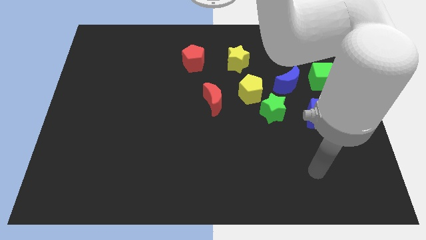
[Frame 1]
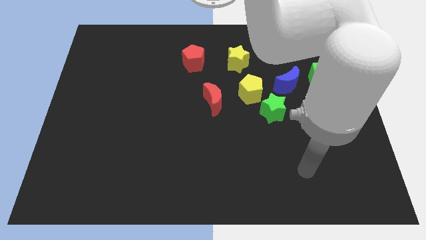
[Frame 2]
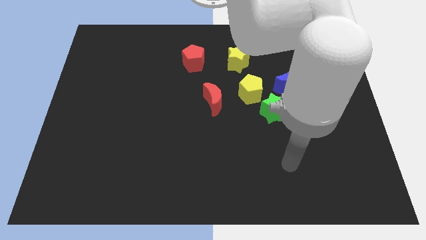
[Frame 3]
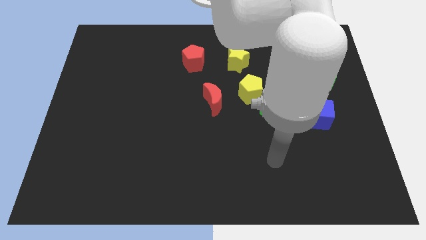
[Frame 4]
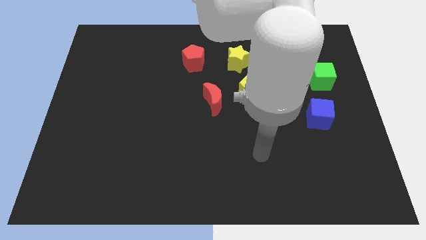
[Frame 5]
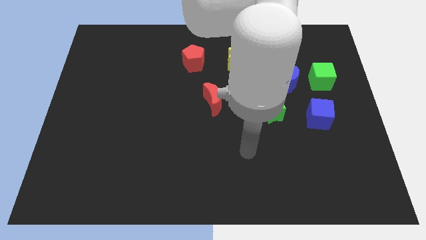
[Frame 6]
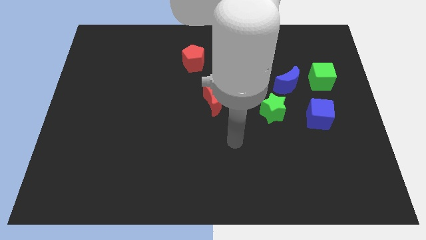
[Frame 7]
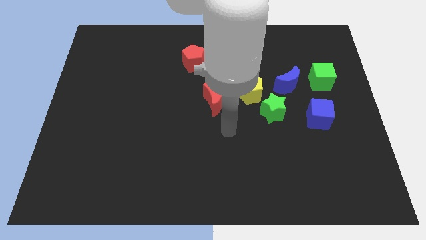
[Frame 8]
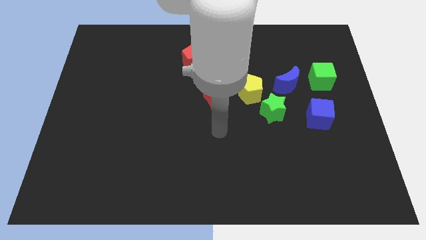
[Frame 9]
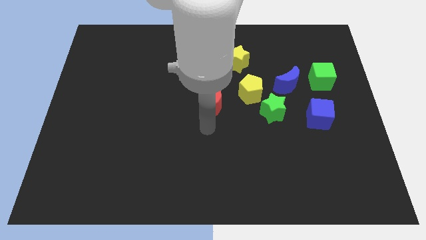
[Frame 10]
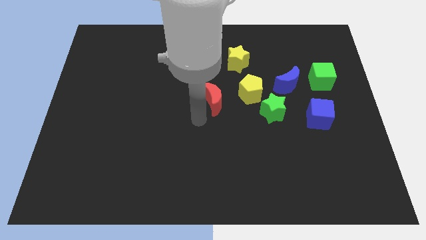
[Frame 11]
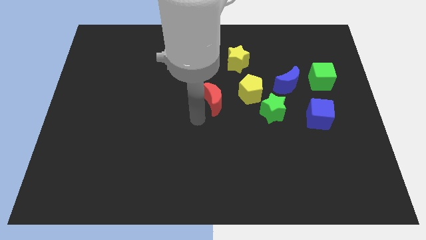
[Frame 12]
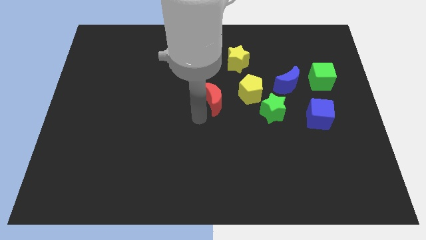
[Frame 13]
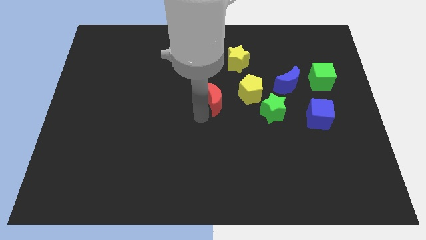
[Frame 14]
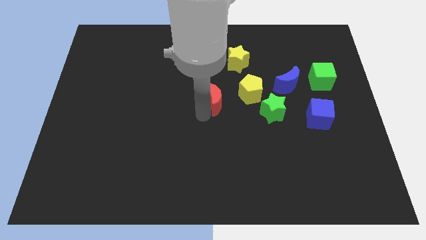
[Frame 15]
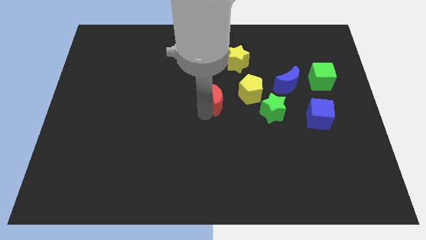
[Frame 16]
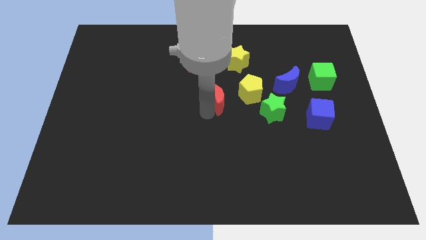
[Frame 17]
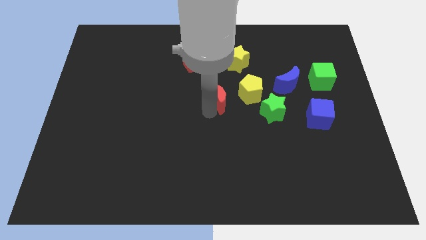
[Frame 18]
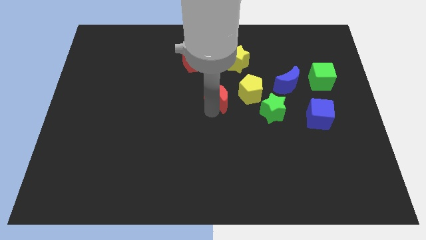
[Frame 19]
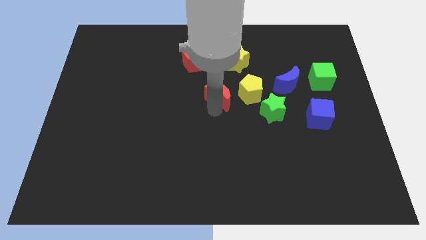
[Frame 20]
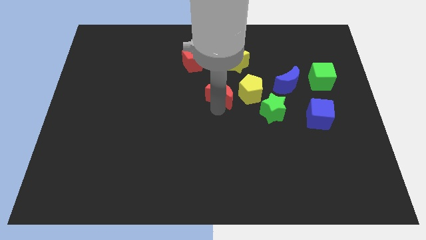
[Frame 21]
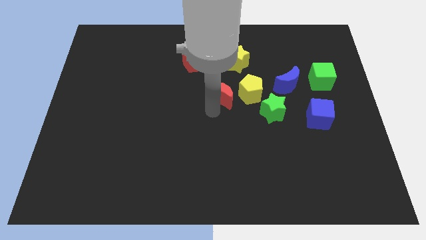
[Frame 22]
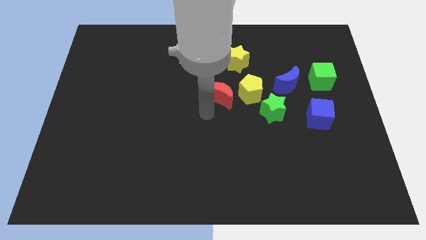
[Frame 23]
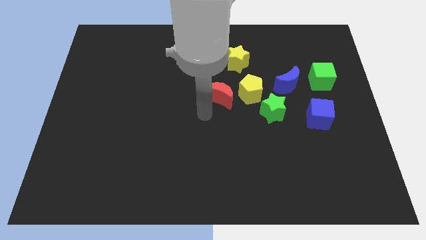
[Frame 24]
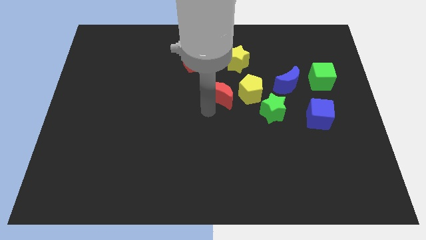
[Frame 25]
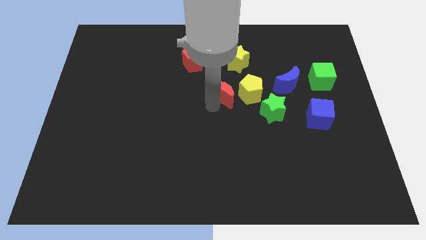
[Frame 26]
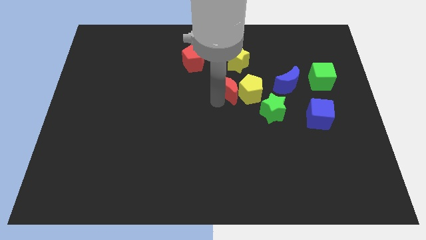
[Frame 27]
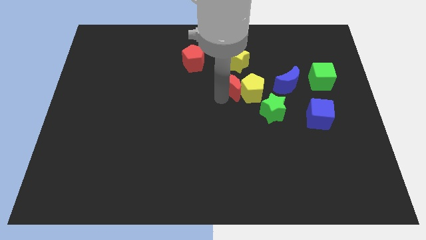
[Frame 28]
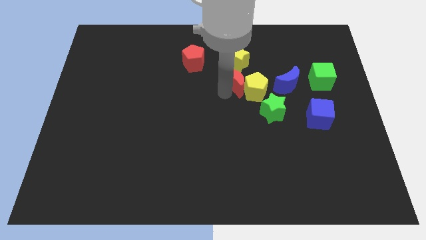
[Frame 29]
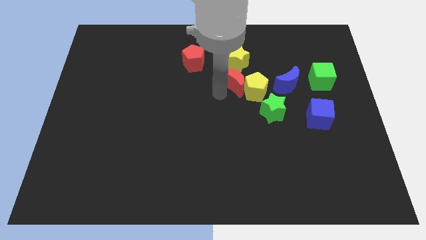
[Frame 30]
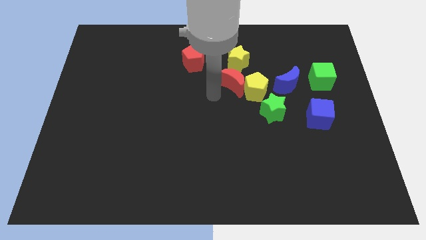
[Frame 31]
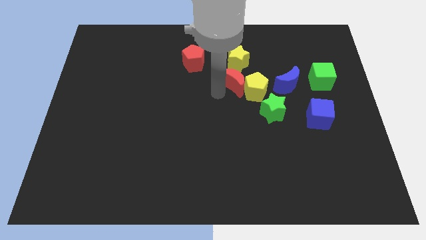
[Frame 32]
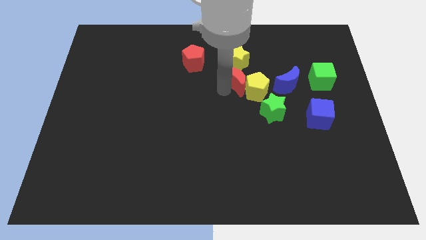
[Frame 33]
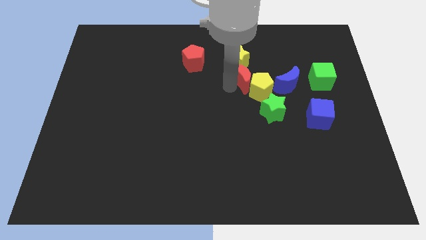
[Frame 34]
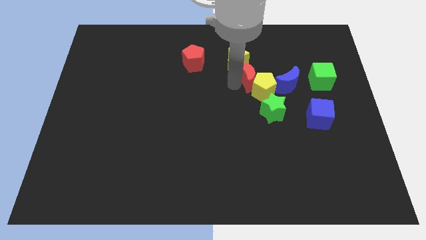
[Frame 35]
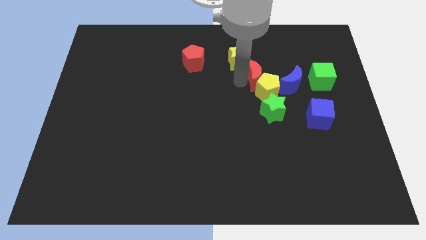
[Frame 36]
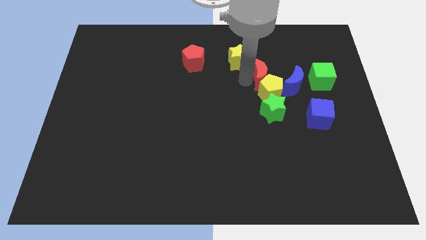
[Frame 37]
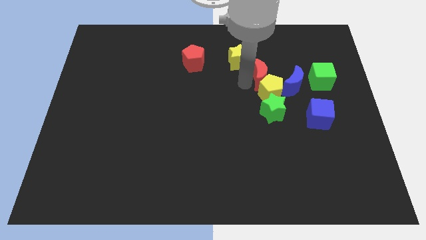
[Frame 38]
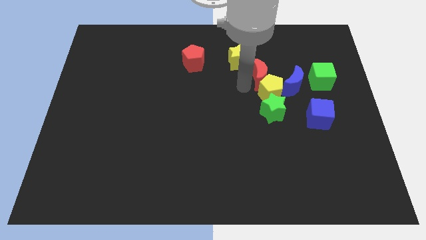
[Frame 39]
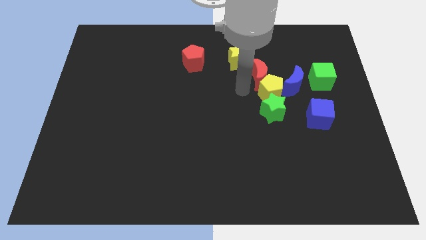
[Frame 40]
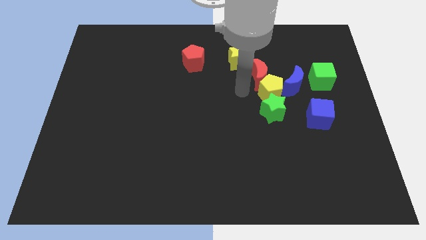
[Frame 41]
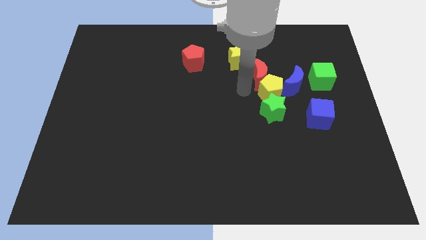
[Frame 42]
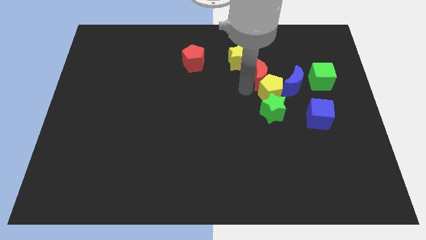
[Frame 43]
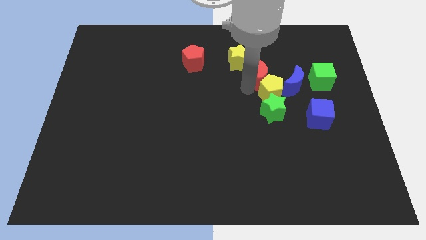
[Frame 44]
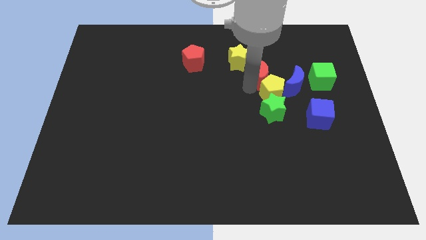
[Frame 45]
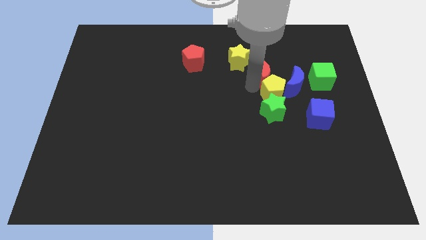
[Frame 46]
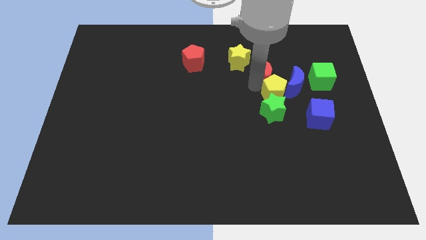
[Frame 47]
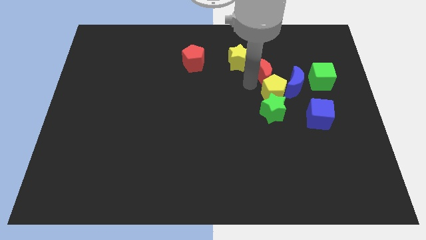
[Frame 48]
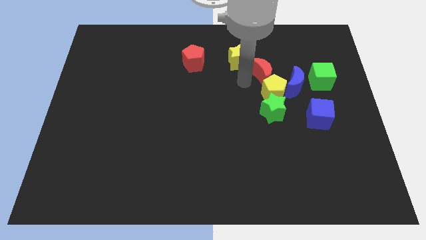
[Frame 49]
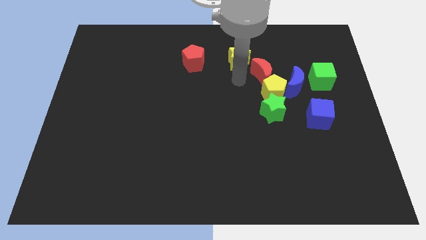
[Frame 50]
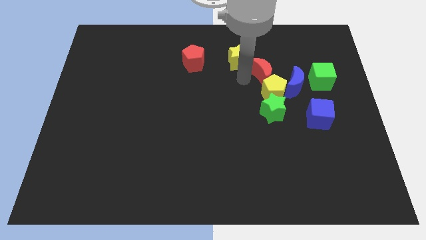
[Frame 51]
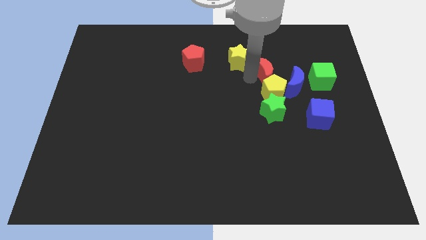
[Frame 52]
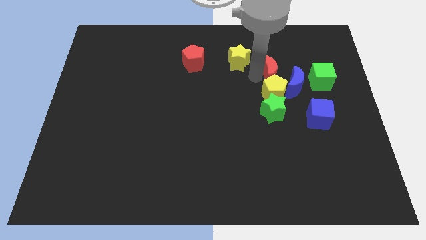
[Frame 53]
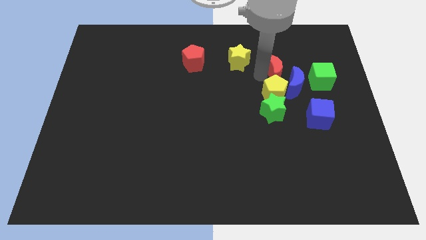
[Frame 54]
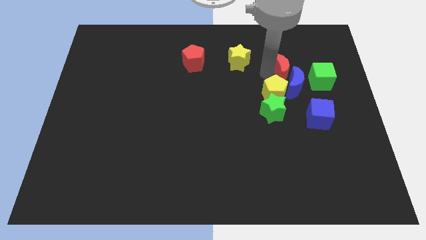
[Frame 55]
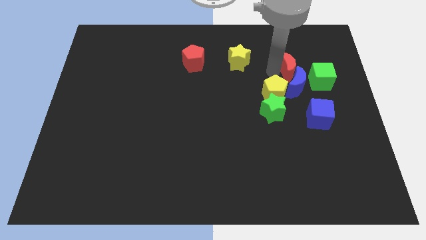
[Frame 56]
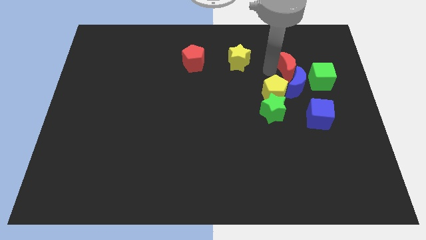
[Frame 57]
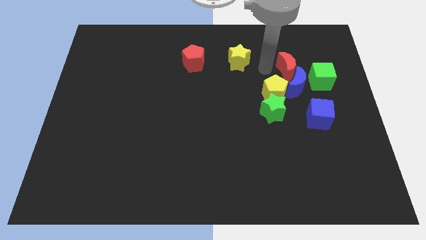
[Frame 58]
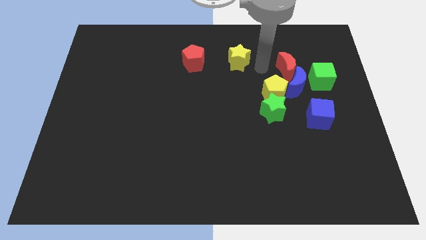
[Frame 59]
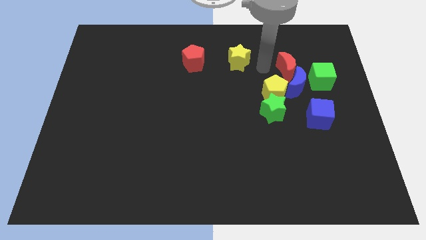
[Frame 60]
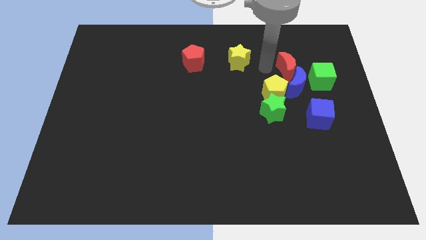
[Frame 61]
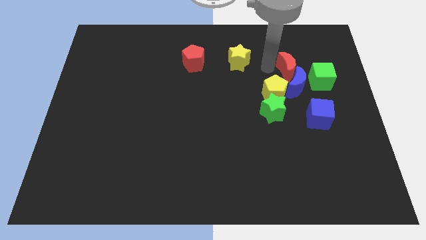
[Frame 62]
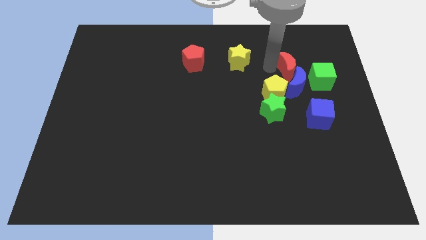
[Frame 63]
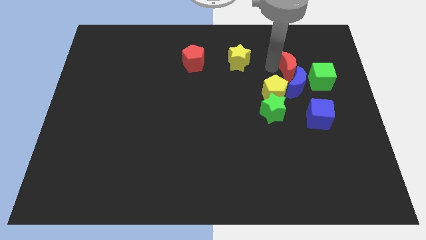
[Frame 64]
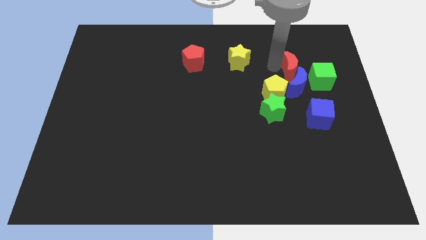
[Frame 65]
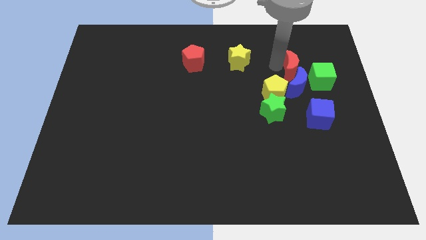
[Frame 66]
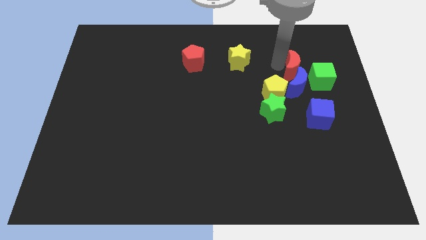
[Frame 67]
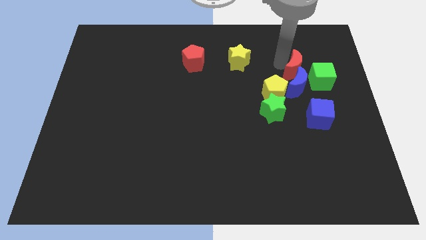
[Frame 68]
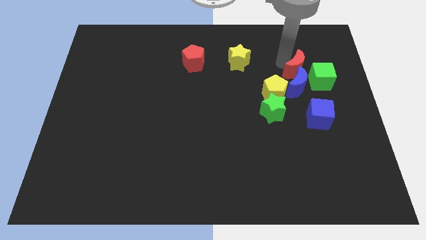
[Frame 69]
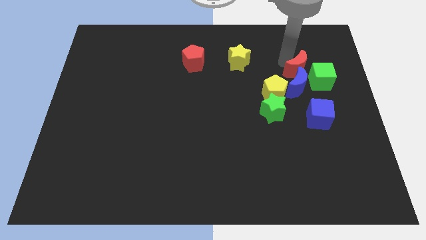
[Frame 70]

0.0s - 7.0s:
slide the red moon above the blue cube
